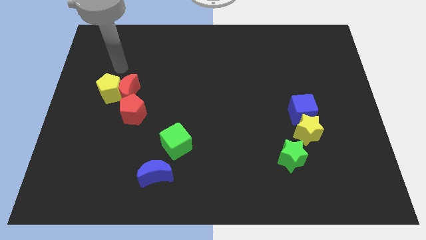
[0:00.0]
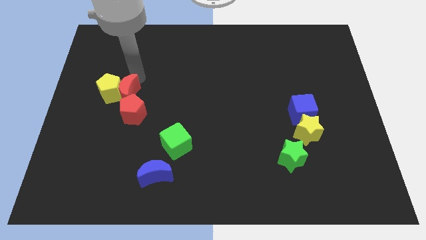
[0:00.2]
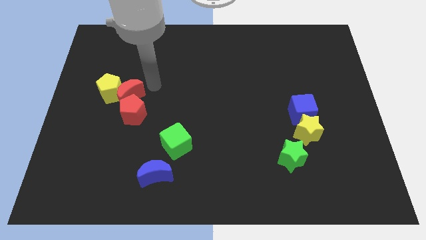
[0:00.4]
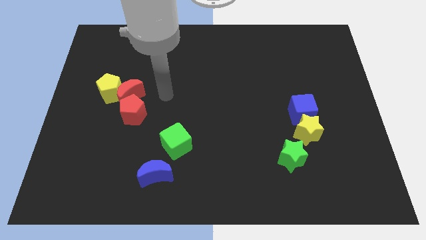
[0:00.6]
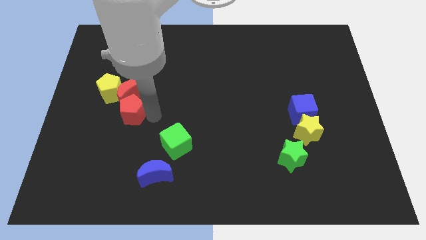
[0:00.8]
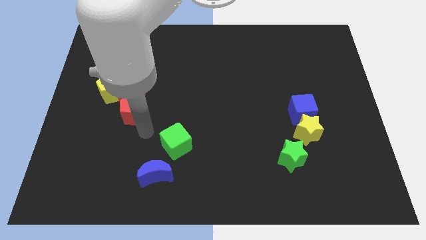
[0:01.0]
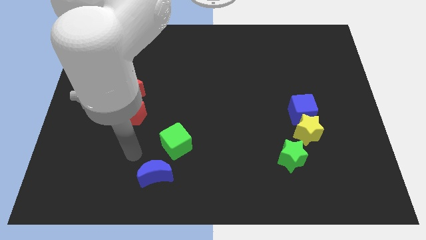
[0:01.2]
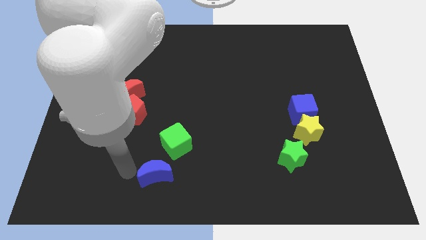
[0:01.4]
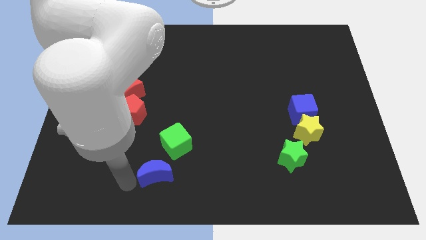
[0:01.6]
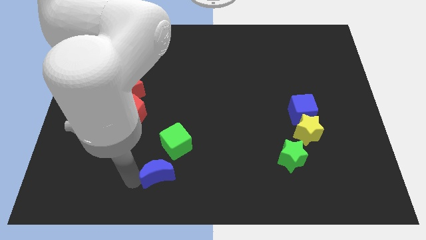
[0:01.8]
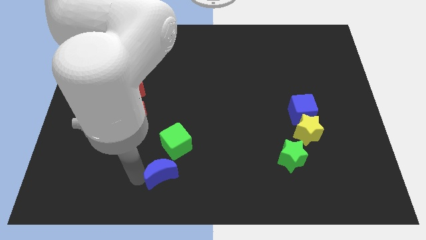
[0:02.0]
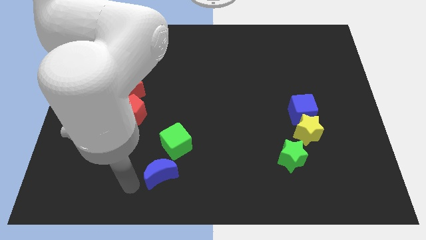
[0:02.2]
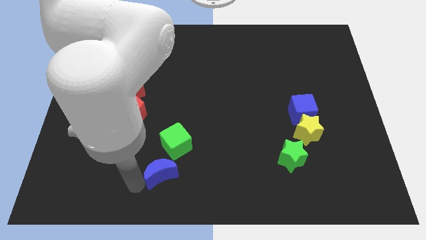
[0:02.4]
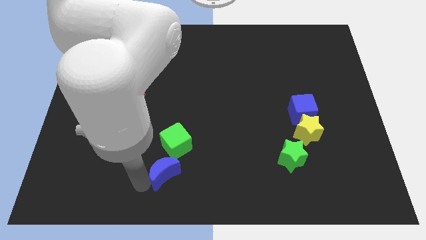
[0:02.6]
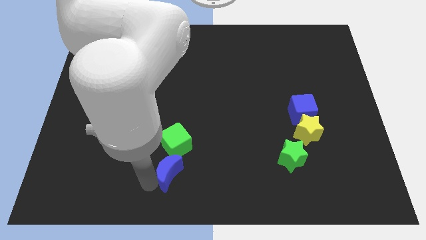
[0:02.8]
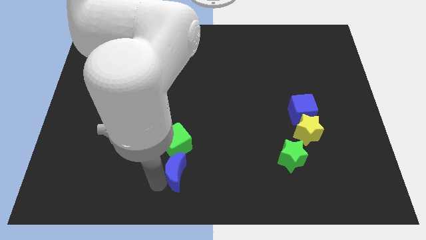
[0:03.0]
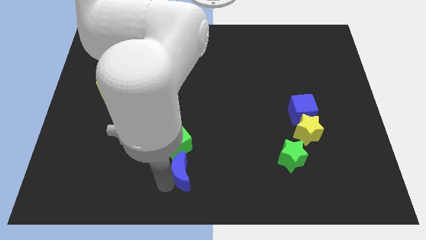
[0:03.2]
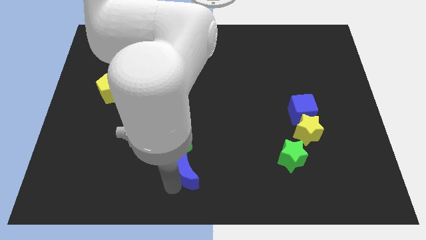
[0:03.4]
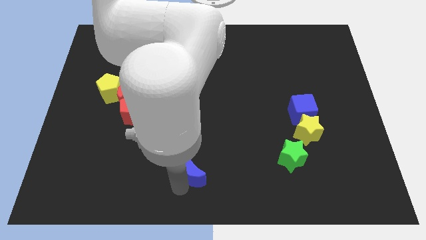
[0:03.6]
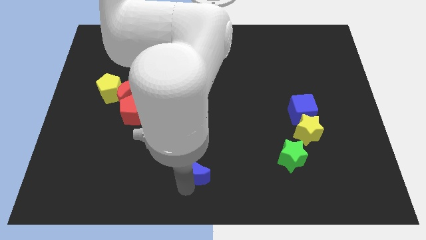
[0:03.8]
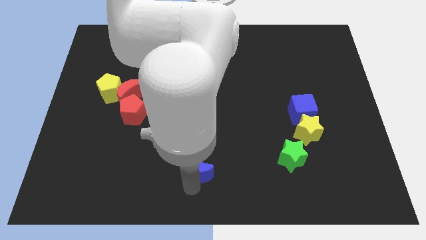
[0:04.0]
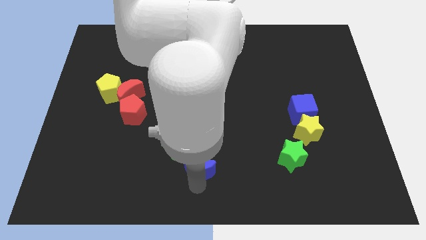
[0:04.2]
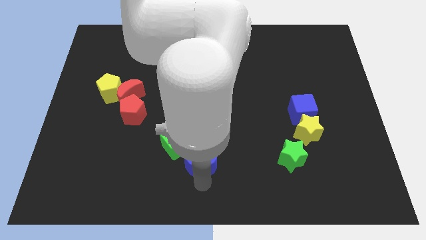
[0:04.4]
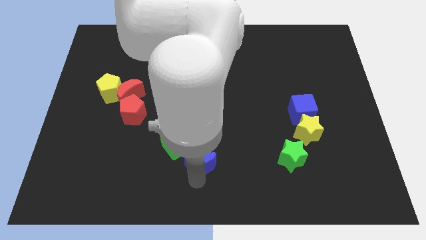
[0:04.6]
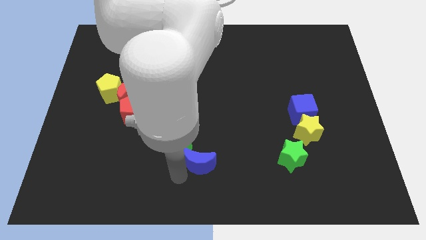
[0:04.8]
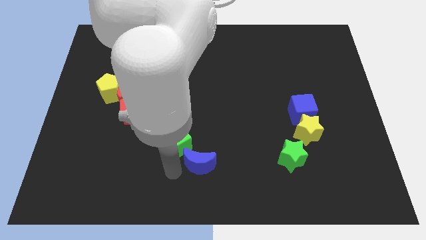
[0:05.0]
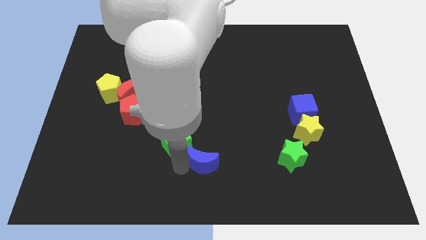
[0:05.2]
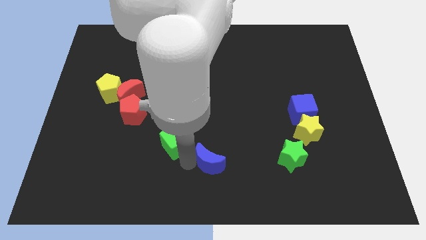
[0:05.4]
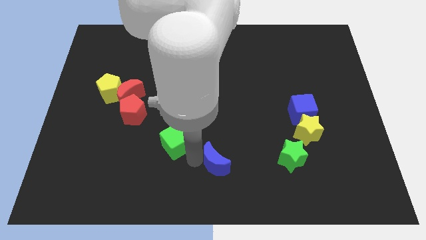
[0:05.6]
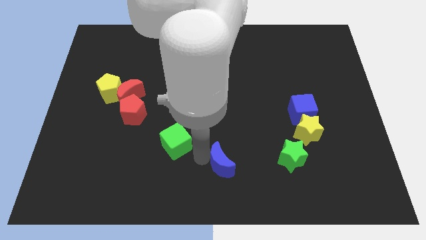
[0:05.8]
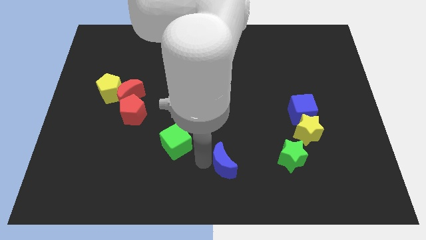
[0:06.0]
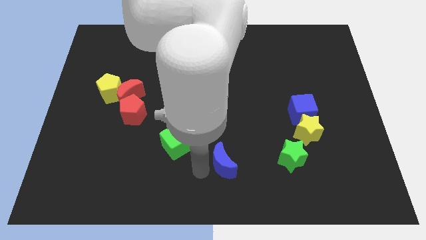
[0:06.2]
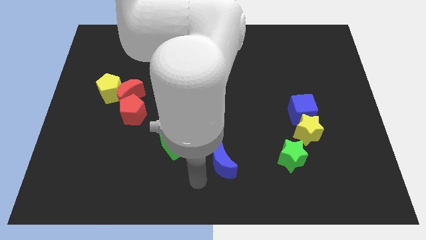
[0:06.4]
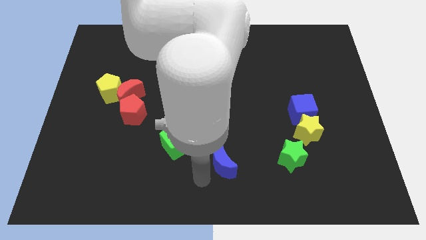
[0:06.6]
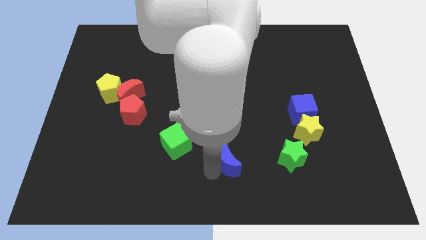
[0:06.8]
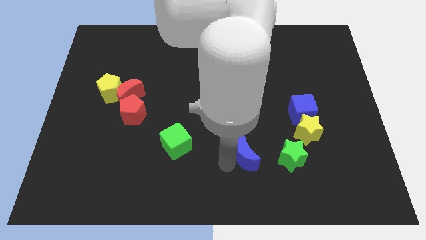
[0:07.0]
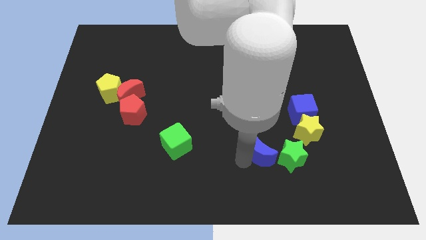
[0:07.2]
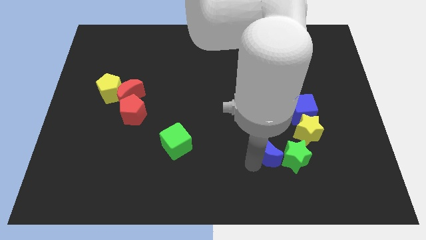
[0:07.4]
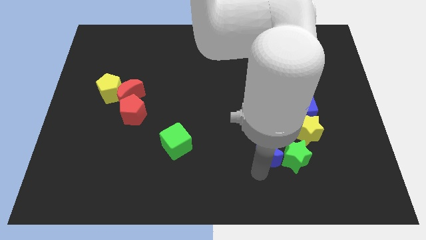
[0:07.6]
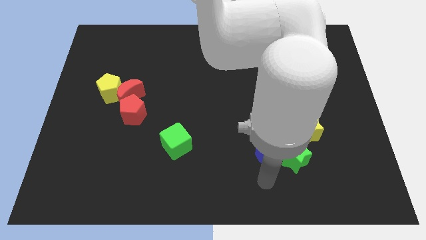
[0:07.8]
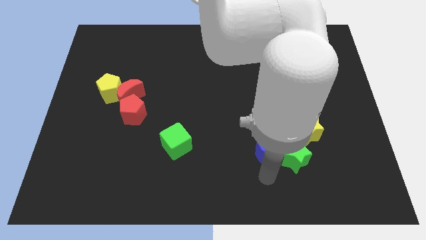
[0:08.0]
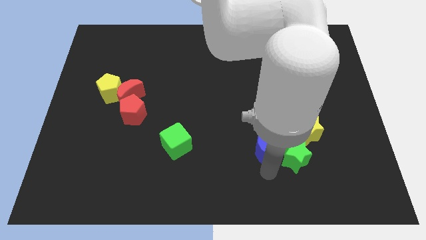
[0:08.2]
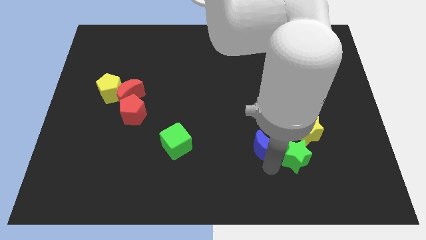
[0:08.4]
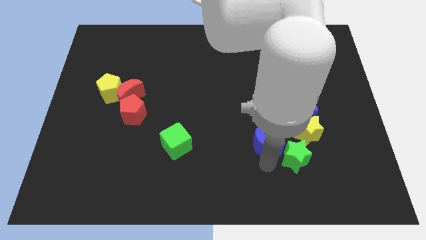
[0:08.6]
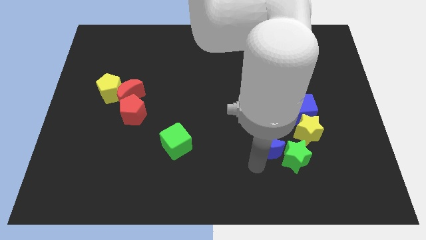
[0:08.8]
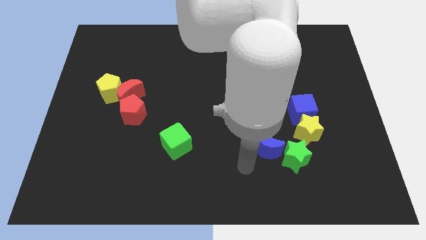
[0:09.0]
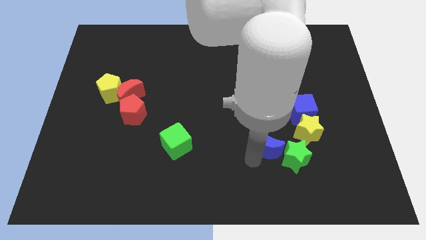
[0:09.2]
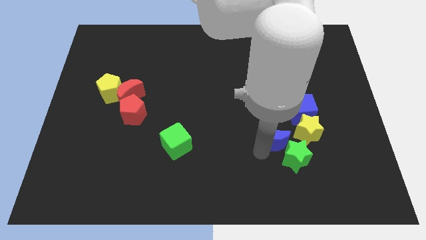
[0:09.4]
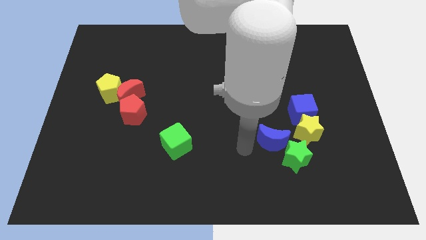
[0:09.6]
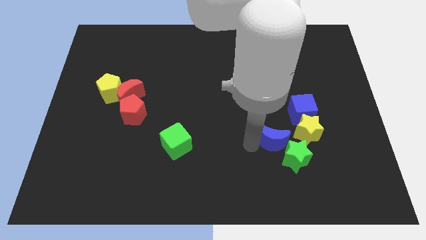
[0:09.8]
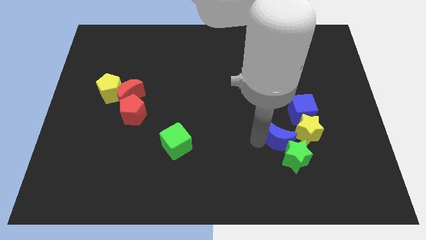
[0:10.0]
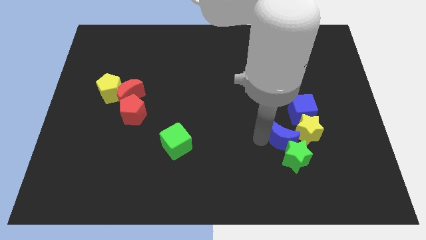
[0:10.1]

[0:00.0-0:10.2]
put the blue moon close to the yellow star

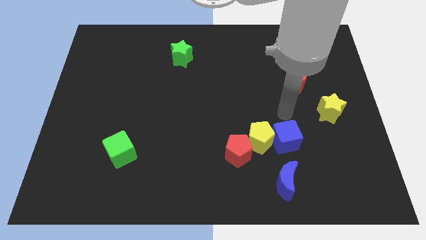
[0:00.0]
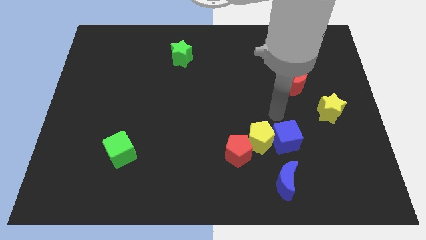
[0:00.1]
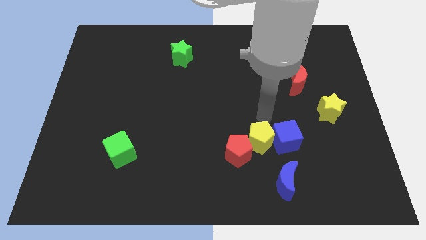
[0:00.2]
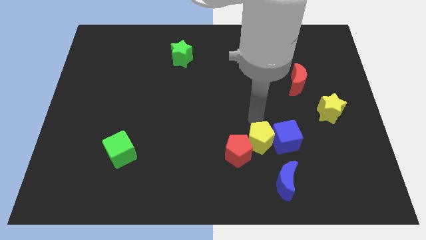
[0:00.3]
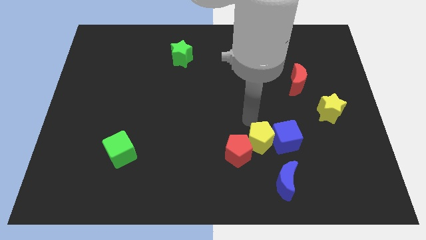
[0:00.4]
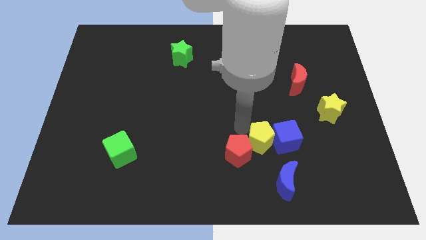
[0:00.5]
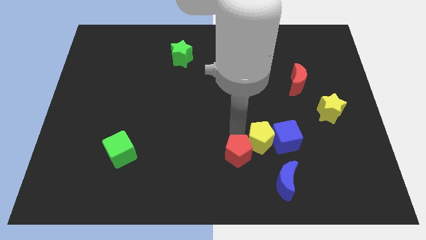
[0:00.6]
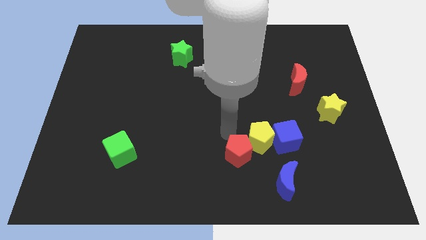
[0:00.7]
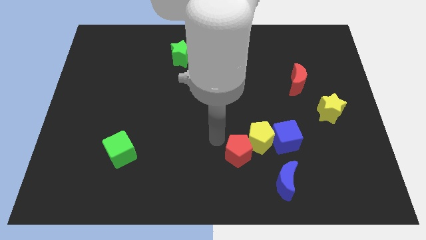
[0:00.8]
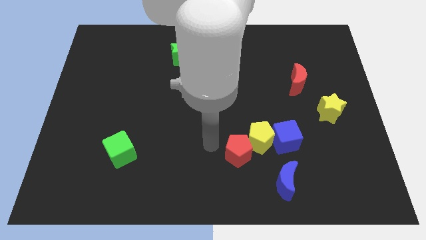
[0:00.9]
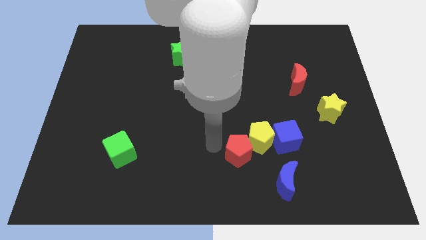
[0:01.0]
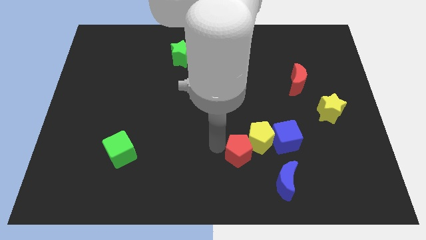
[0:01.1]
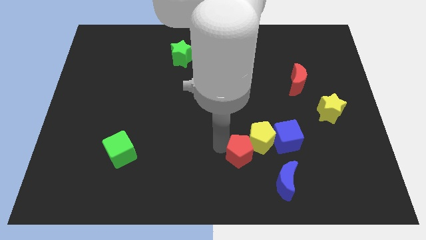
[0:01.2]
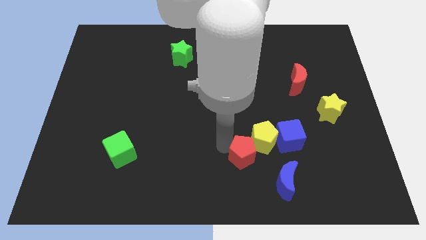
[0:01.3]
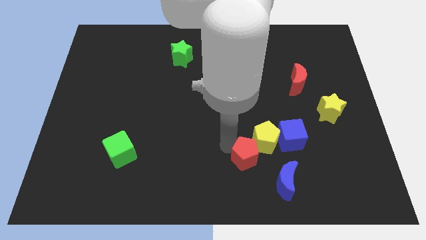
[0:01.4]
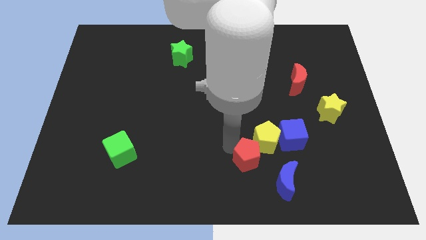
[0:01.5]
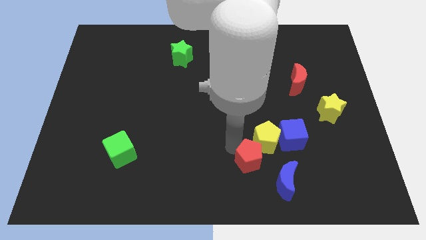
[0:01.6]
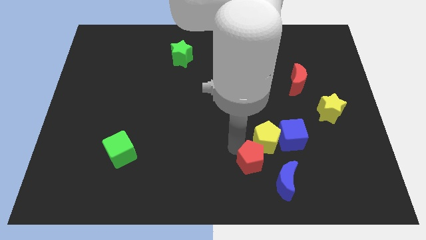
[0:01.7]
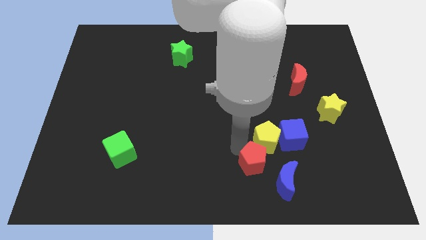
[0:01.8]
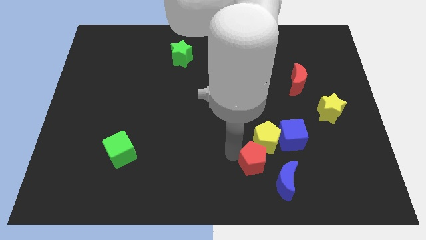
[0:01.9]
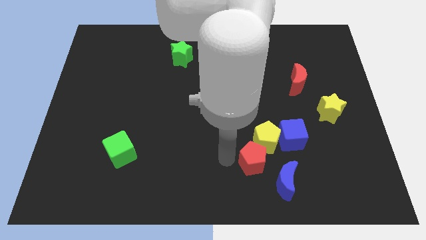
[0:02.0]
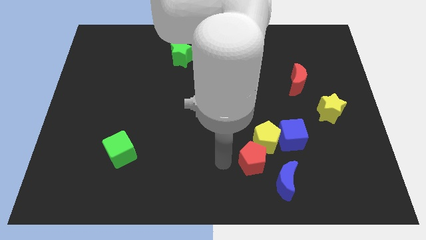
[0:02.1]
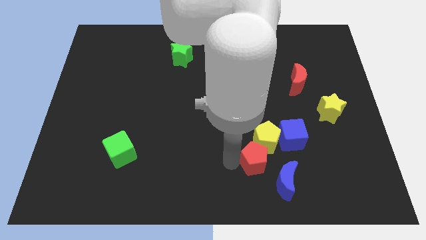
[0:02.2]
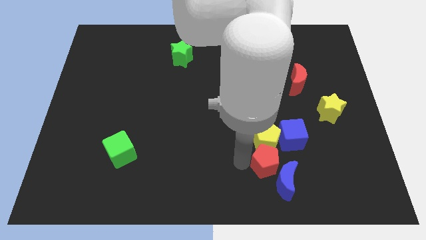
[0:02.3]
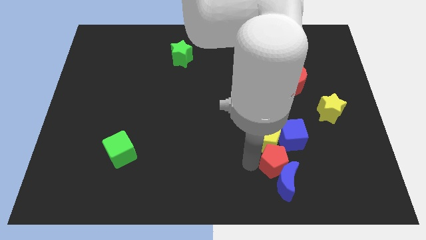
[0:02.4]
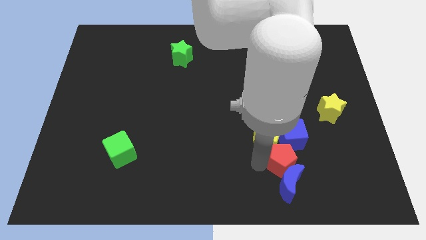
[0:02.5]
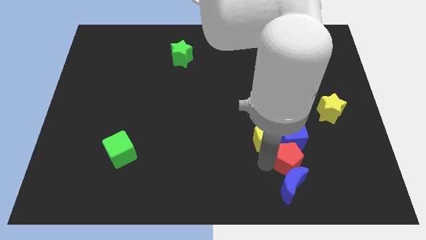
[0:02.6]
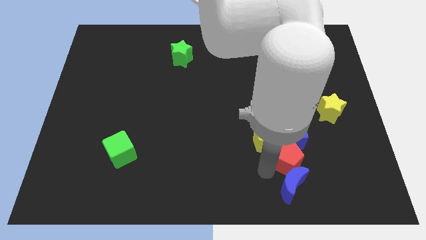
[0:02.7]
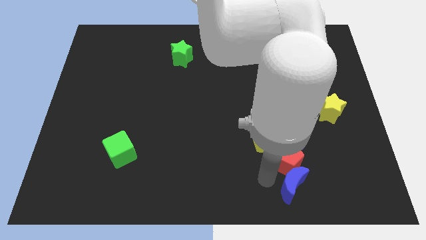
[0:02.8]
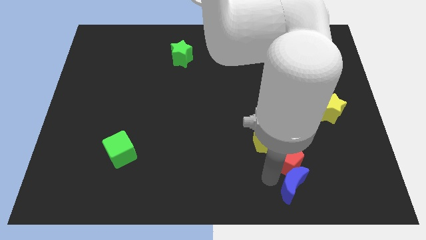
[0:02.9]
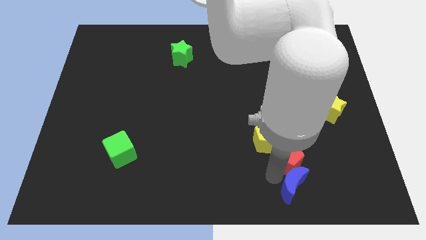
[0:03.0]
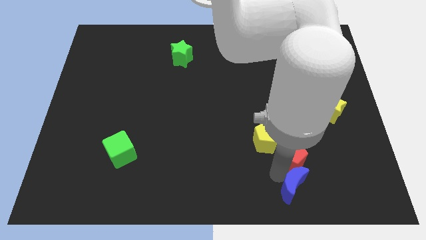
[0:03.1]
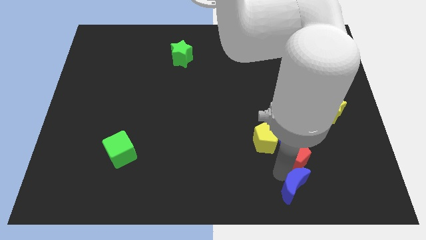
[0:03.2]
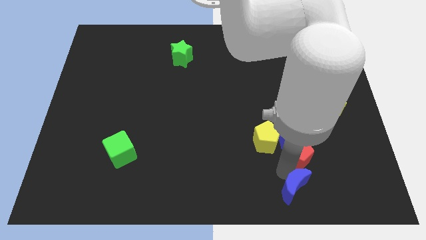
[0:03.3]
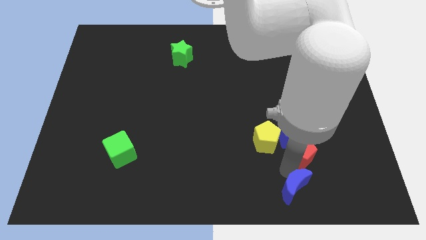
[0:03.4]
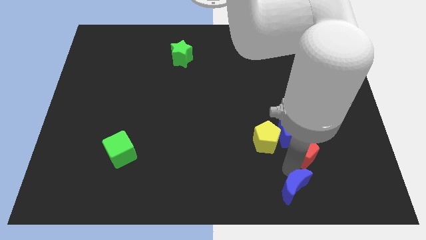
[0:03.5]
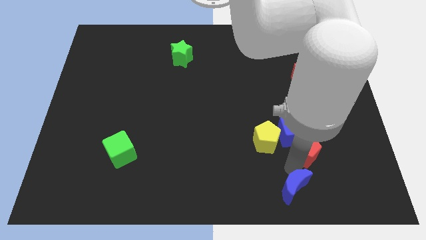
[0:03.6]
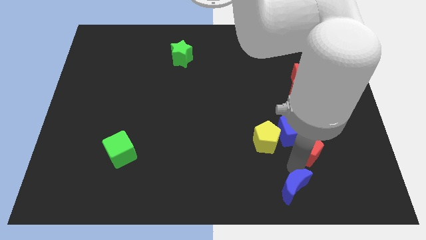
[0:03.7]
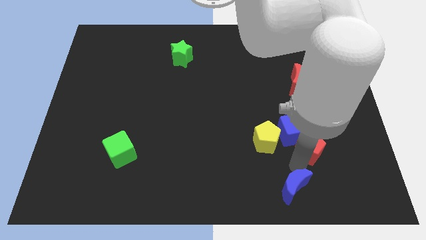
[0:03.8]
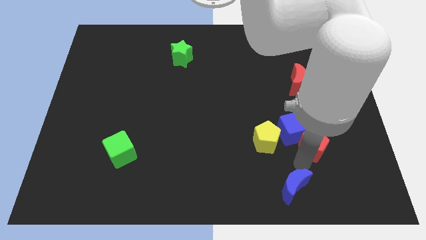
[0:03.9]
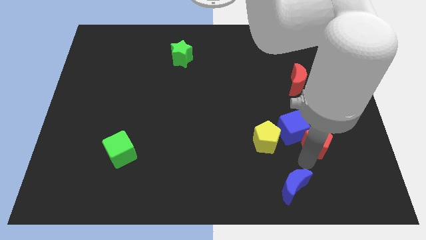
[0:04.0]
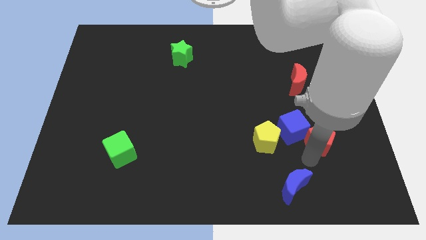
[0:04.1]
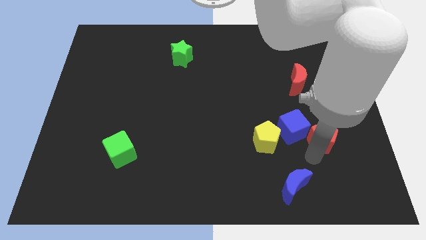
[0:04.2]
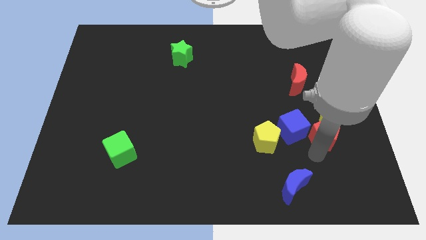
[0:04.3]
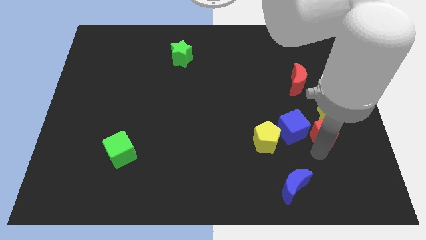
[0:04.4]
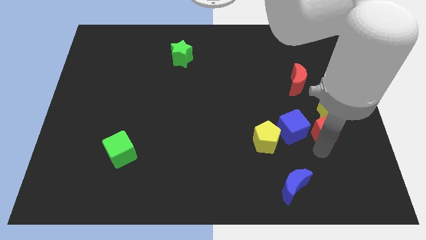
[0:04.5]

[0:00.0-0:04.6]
move the red pentagon to the yellow star
